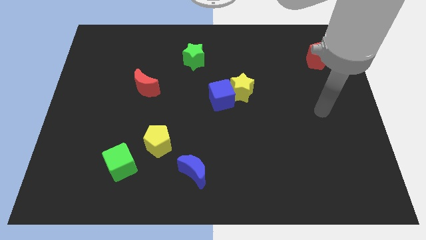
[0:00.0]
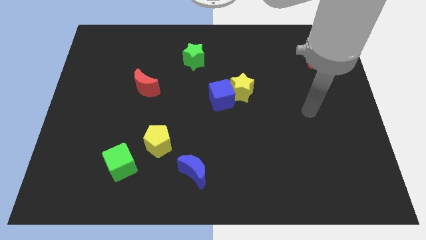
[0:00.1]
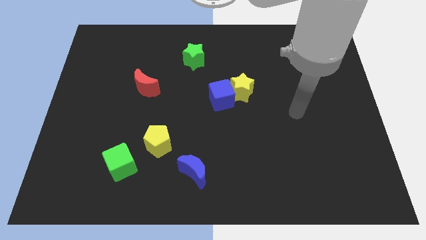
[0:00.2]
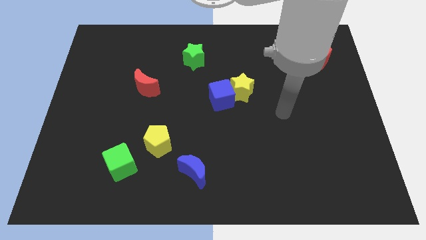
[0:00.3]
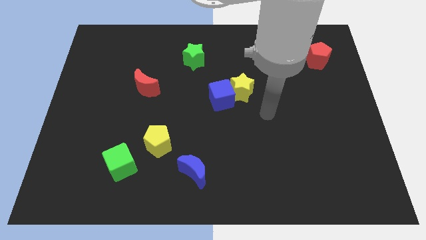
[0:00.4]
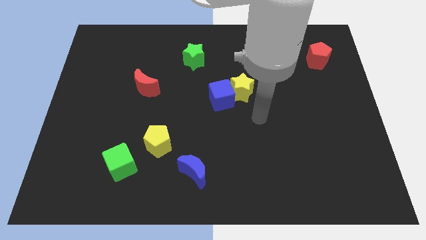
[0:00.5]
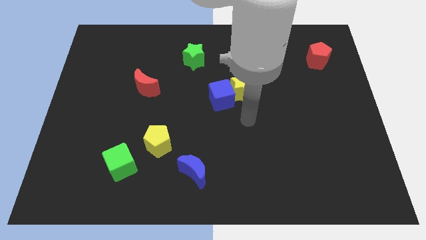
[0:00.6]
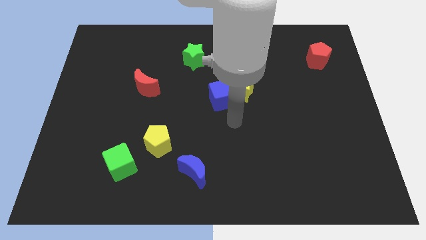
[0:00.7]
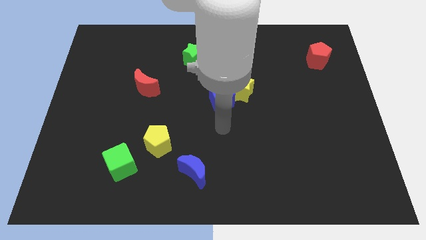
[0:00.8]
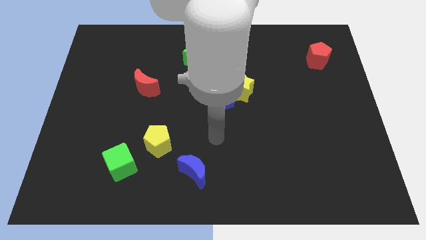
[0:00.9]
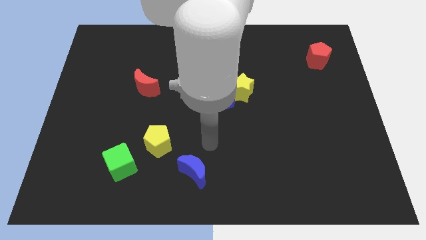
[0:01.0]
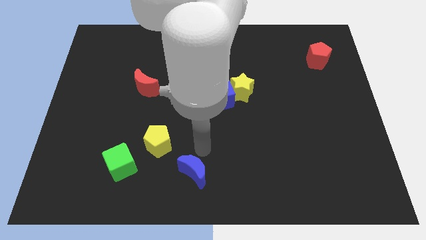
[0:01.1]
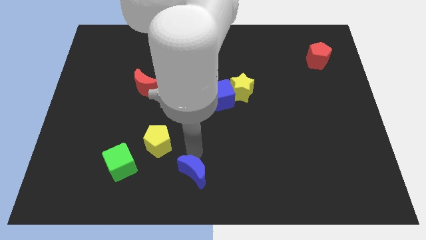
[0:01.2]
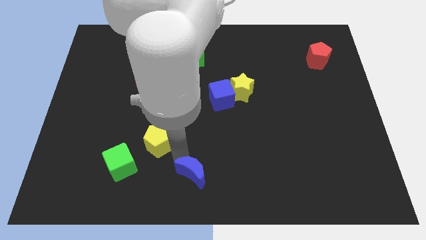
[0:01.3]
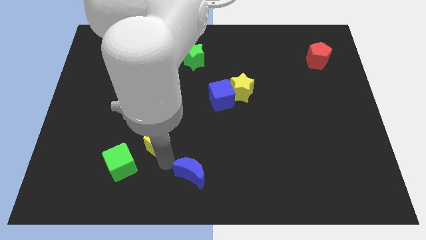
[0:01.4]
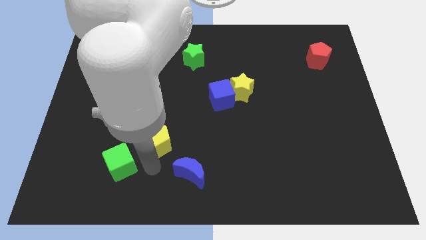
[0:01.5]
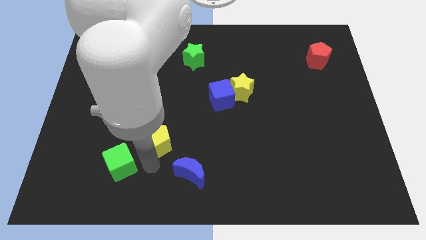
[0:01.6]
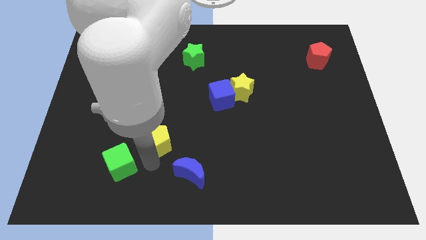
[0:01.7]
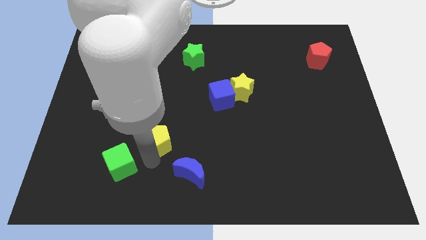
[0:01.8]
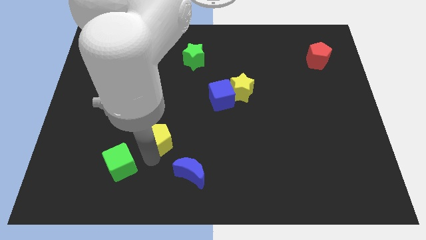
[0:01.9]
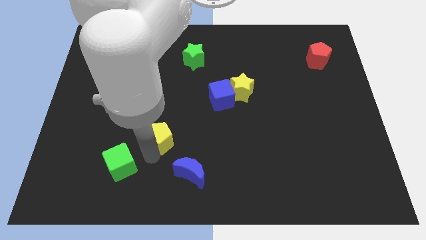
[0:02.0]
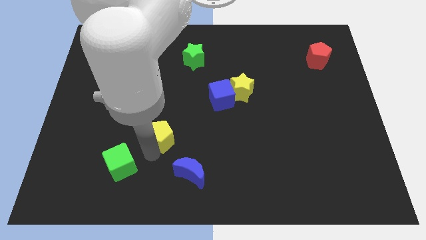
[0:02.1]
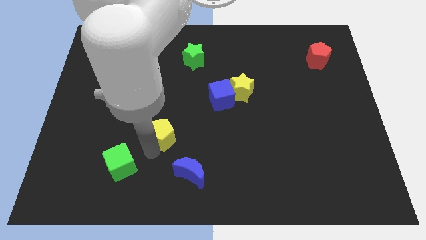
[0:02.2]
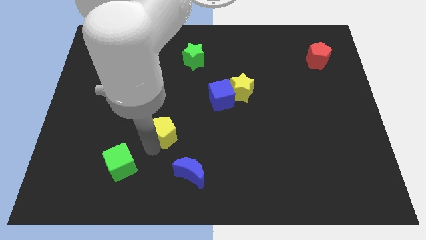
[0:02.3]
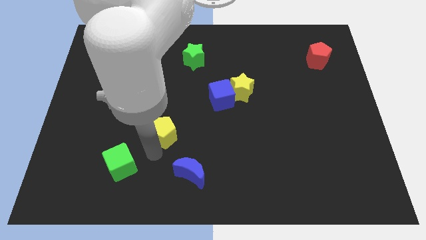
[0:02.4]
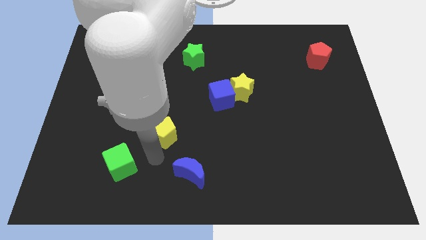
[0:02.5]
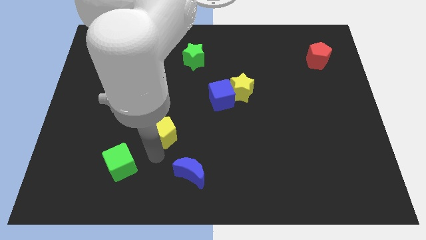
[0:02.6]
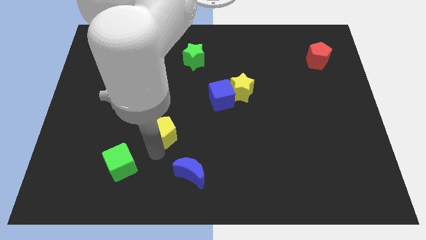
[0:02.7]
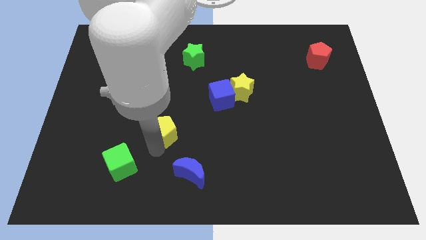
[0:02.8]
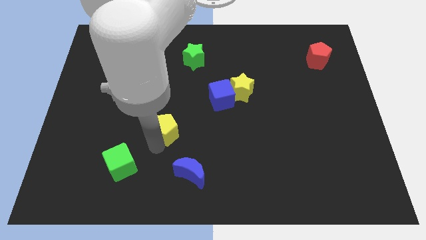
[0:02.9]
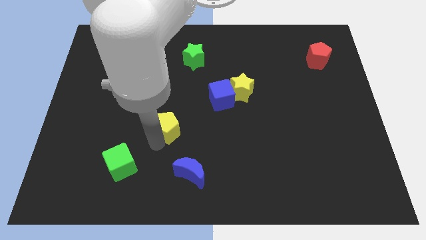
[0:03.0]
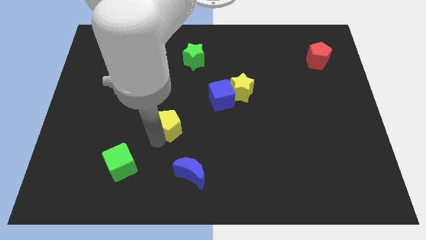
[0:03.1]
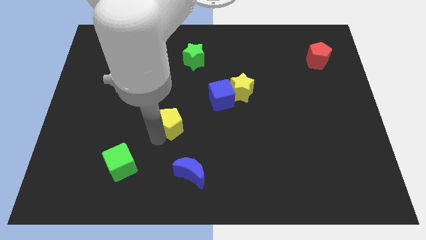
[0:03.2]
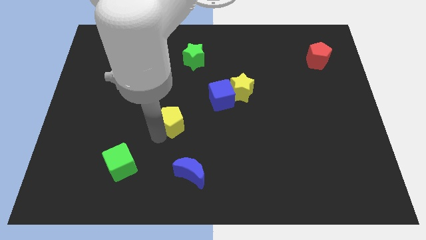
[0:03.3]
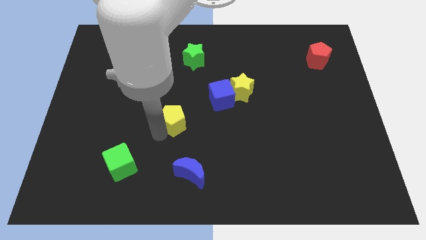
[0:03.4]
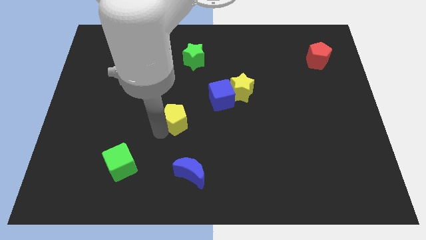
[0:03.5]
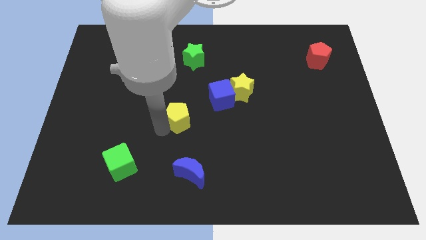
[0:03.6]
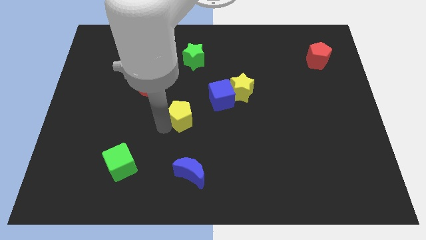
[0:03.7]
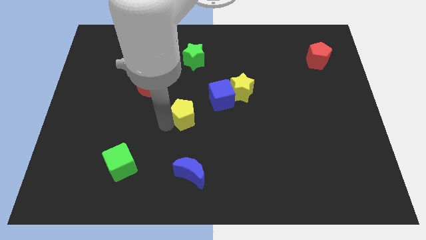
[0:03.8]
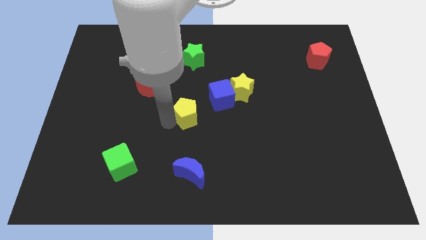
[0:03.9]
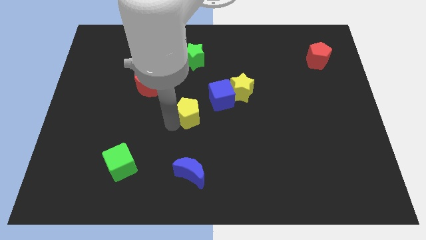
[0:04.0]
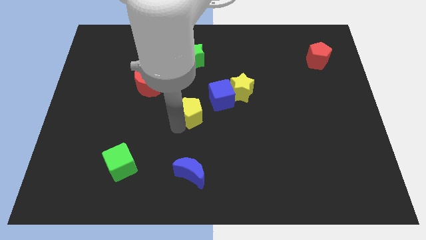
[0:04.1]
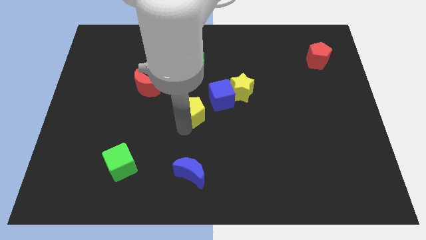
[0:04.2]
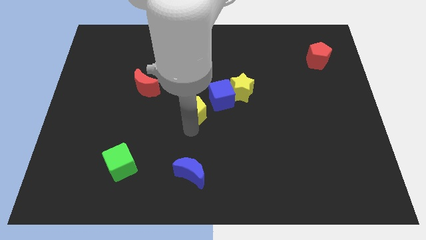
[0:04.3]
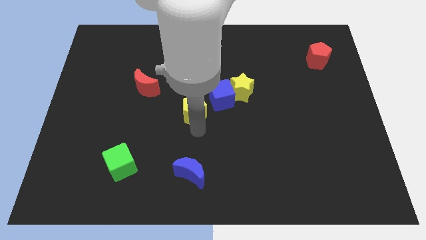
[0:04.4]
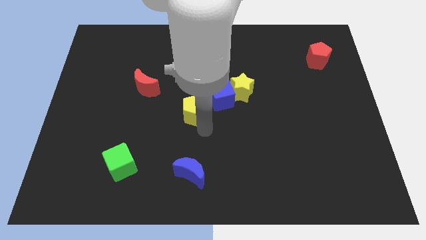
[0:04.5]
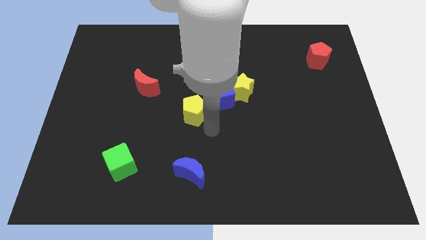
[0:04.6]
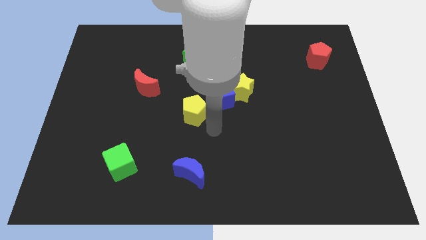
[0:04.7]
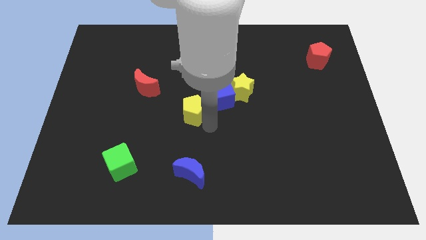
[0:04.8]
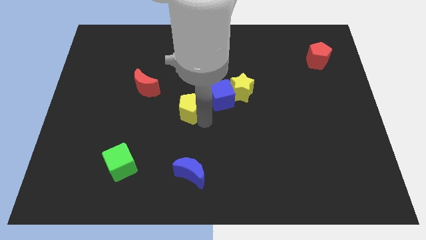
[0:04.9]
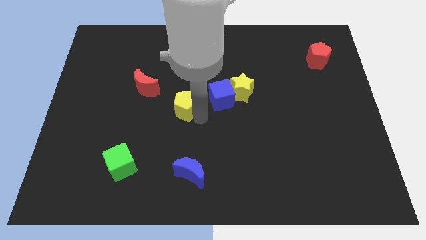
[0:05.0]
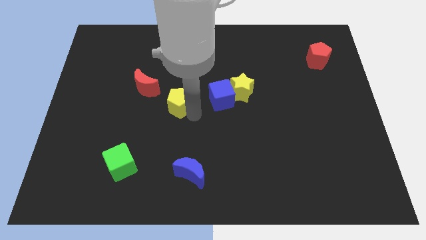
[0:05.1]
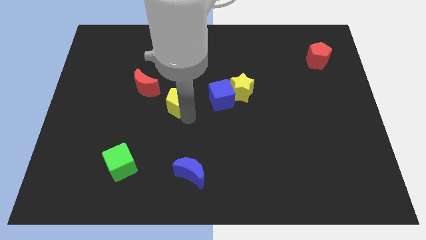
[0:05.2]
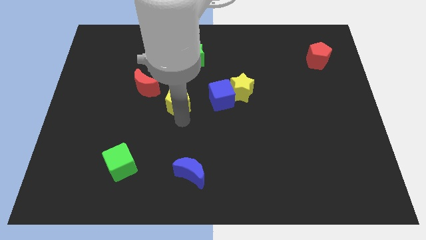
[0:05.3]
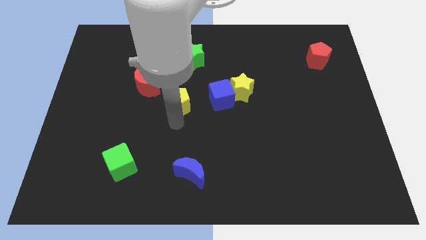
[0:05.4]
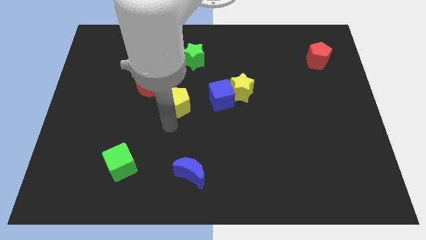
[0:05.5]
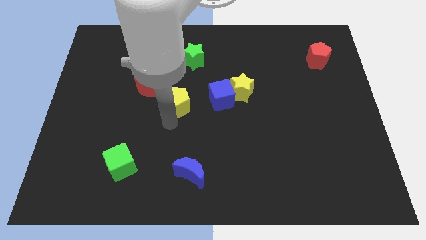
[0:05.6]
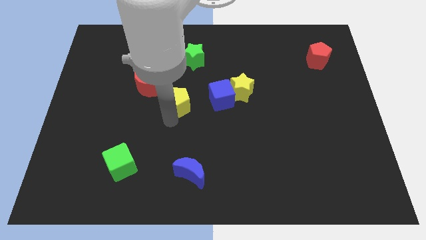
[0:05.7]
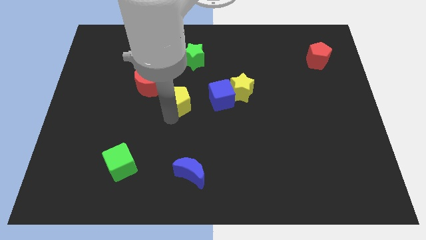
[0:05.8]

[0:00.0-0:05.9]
slide the yellow pentagon right of the red moon

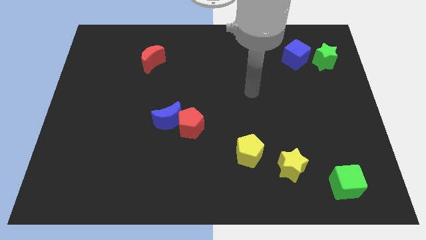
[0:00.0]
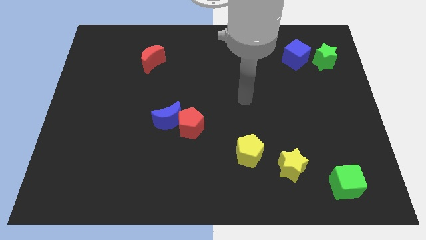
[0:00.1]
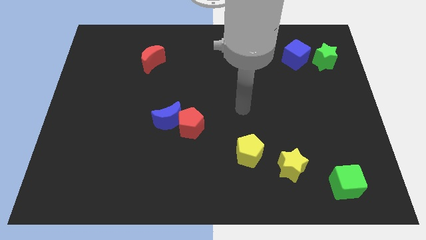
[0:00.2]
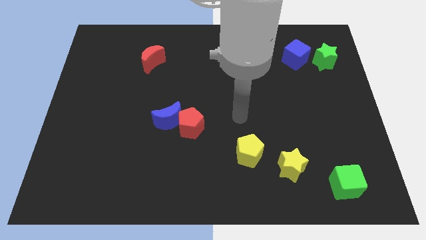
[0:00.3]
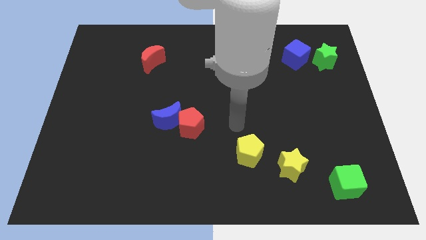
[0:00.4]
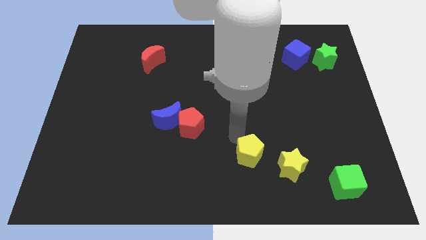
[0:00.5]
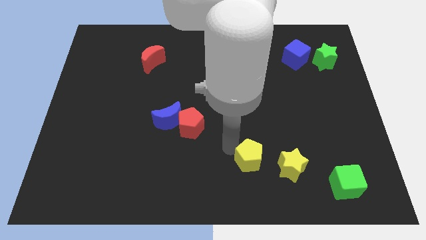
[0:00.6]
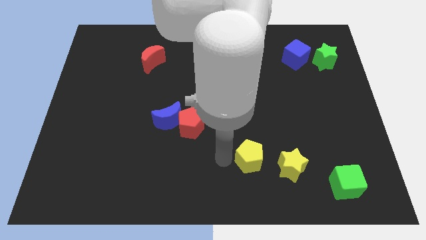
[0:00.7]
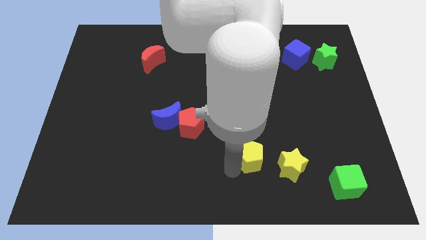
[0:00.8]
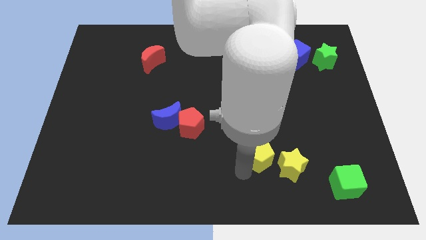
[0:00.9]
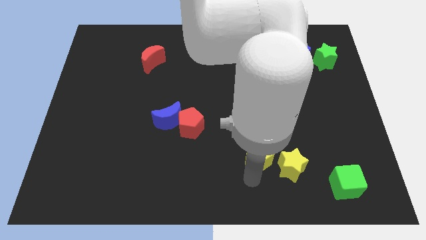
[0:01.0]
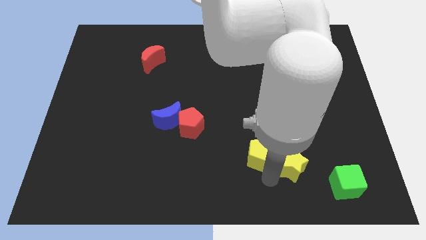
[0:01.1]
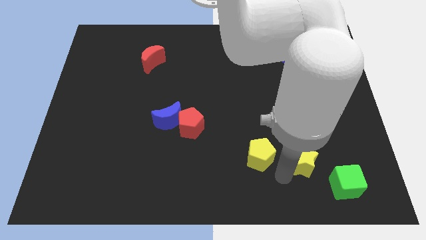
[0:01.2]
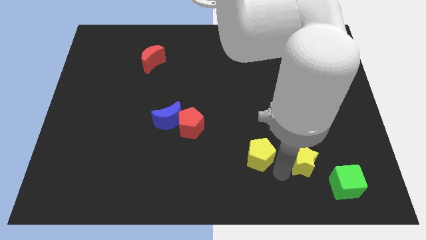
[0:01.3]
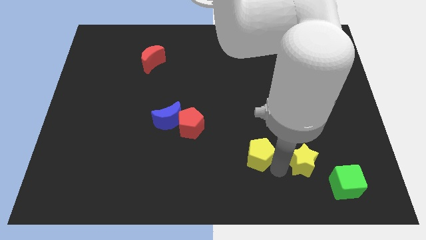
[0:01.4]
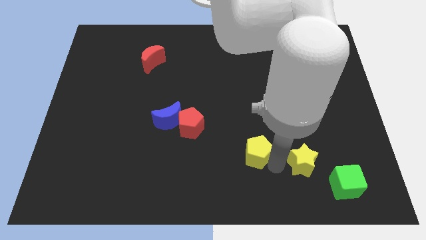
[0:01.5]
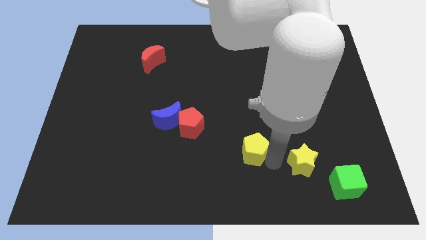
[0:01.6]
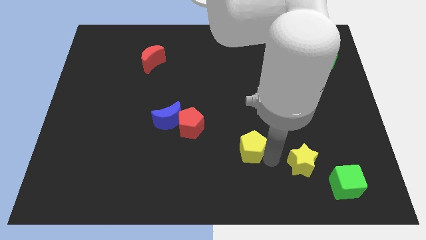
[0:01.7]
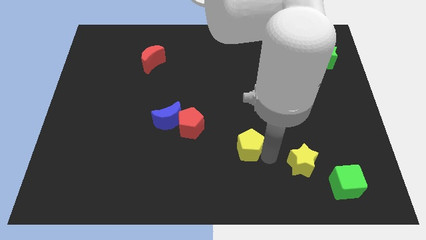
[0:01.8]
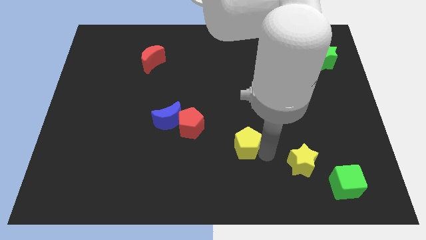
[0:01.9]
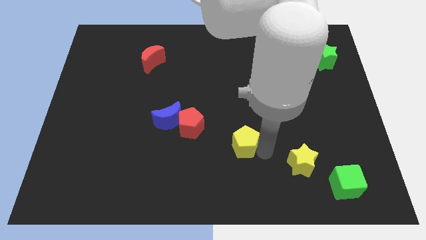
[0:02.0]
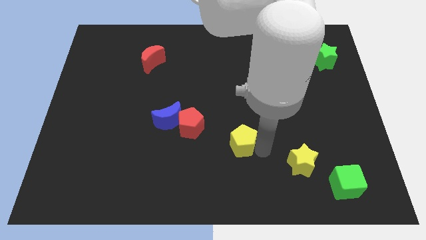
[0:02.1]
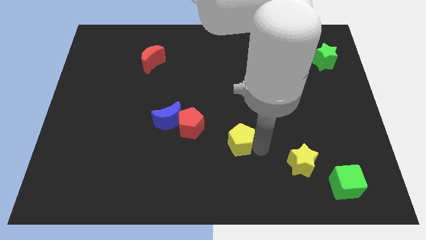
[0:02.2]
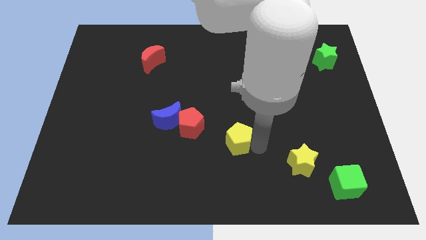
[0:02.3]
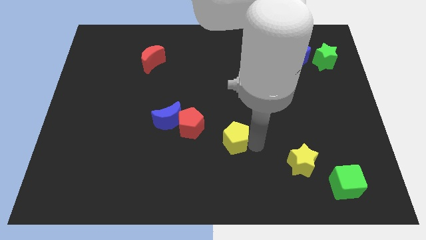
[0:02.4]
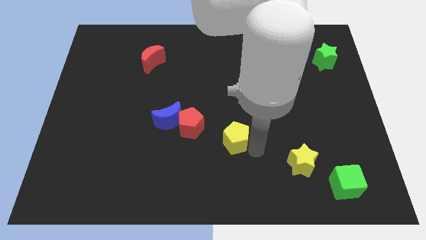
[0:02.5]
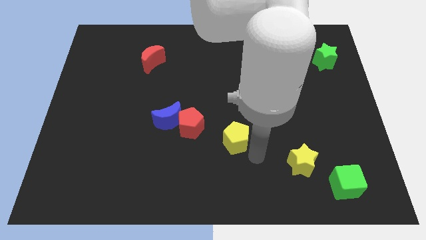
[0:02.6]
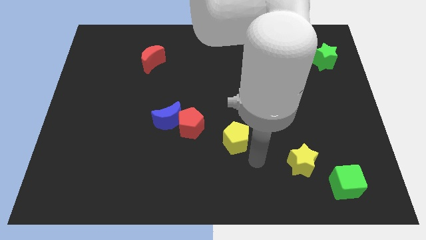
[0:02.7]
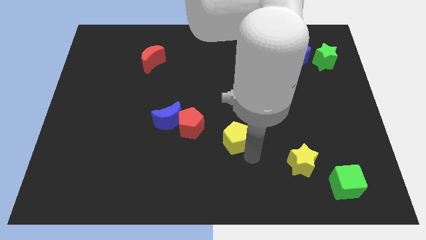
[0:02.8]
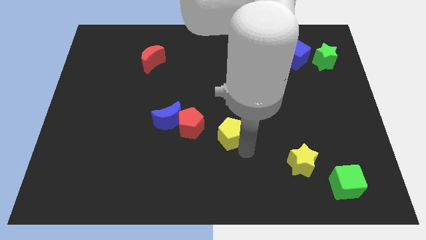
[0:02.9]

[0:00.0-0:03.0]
slide the yellow pentagon to the right side of the blue moon
